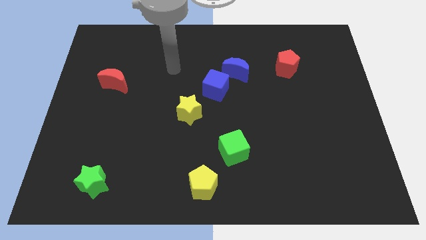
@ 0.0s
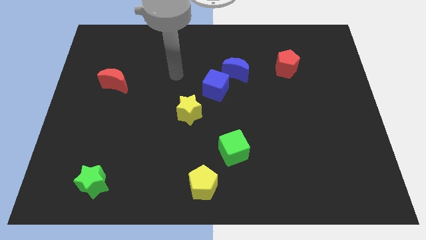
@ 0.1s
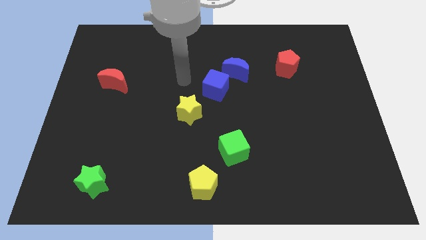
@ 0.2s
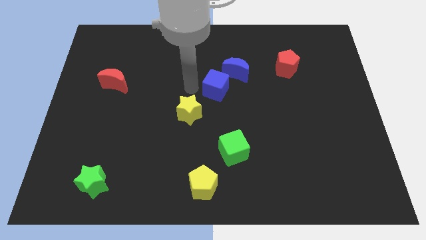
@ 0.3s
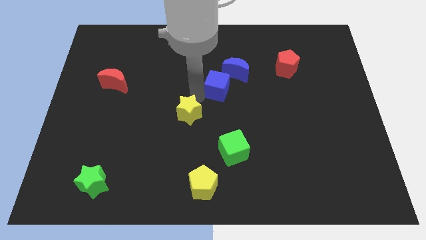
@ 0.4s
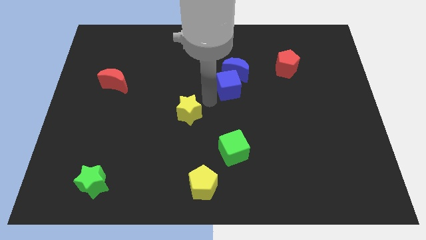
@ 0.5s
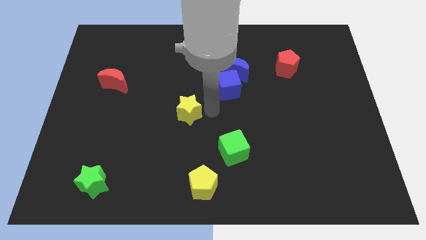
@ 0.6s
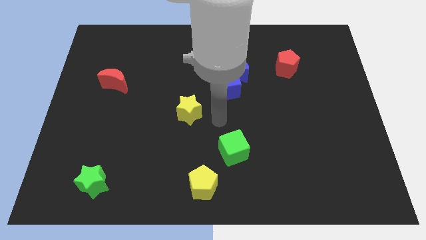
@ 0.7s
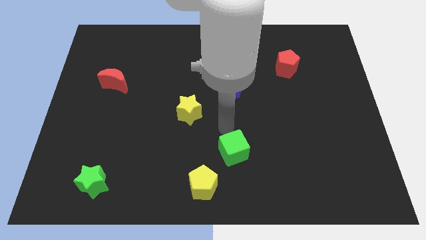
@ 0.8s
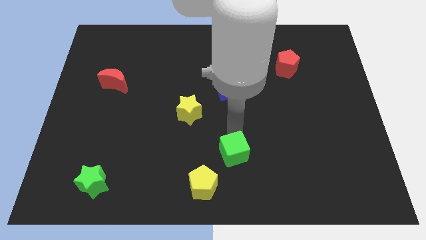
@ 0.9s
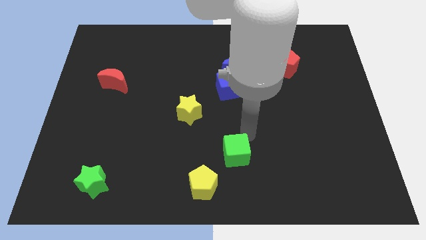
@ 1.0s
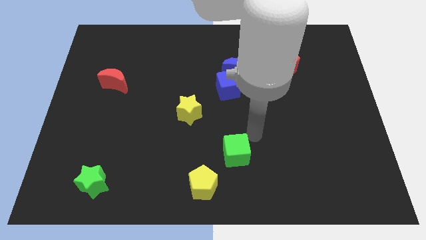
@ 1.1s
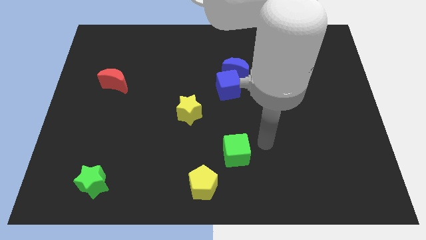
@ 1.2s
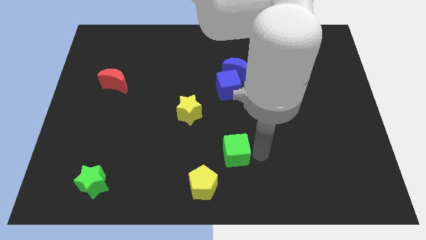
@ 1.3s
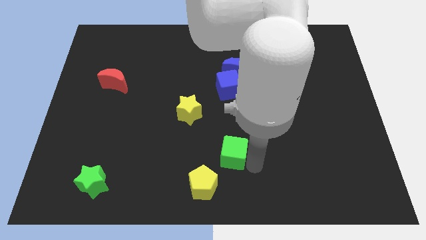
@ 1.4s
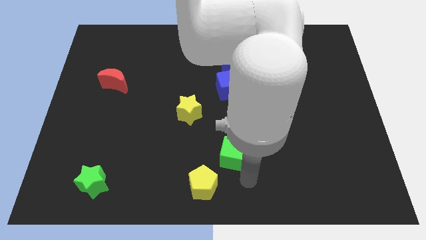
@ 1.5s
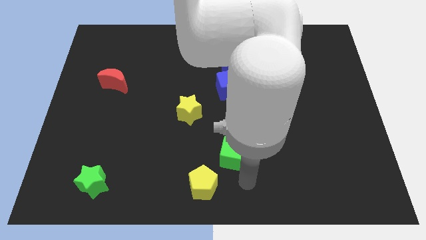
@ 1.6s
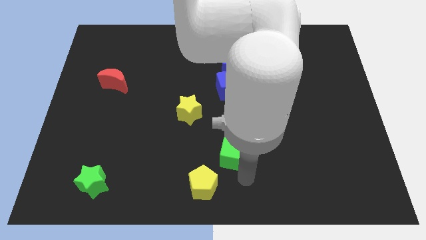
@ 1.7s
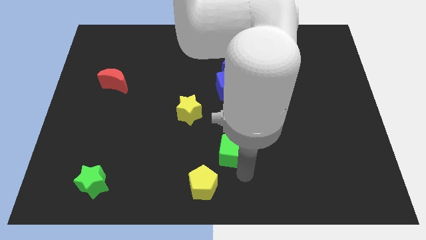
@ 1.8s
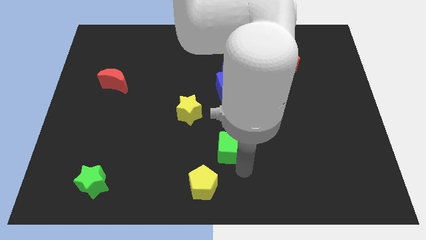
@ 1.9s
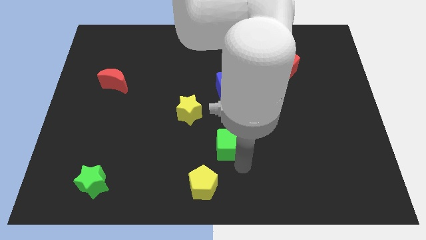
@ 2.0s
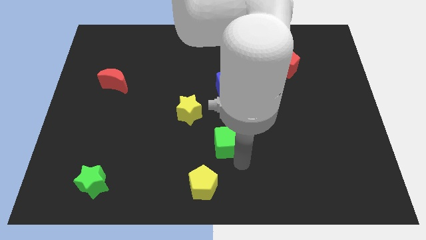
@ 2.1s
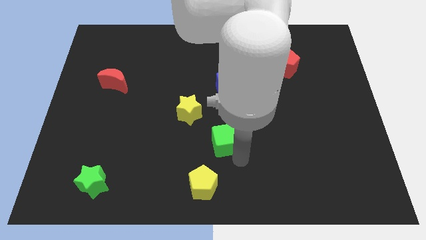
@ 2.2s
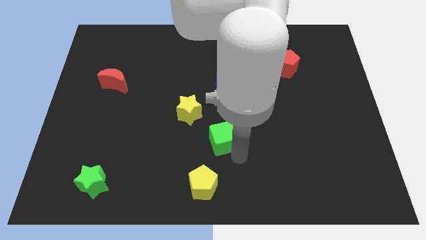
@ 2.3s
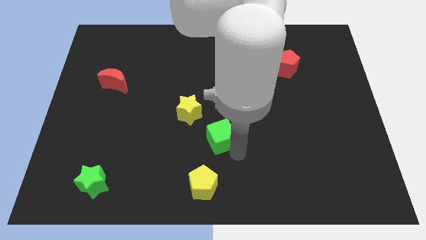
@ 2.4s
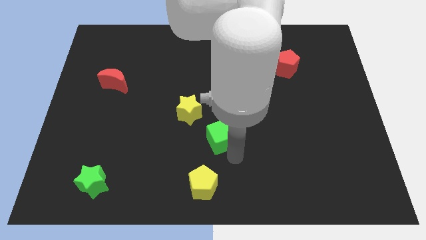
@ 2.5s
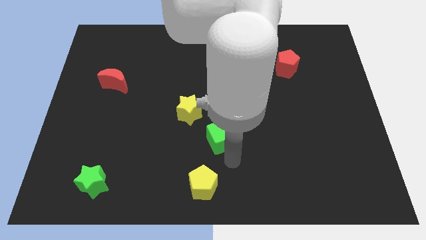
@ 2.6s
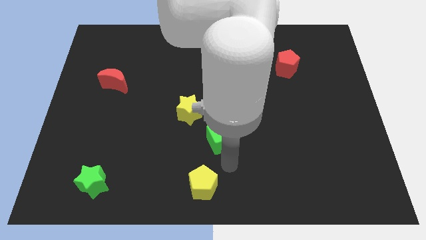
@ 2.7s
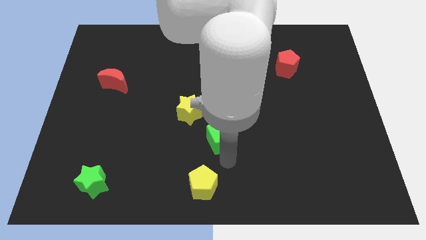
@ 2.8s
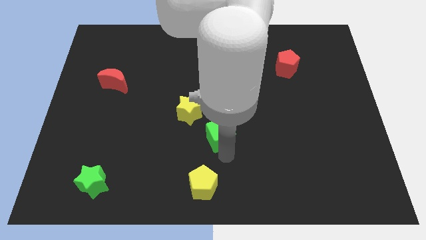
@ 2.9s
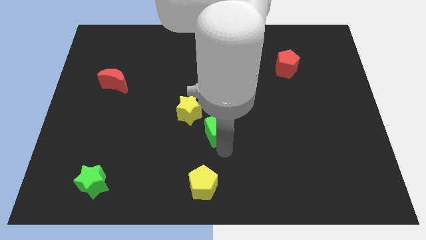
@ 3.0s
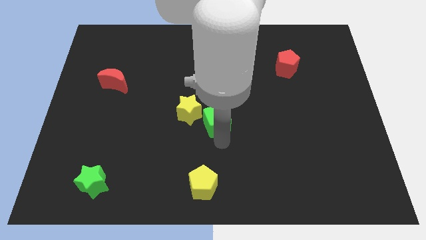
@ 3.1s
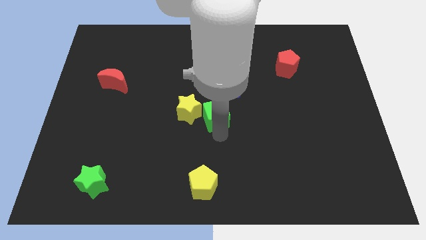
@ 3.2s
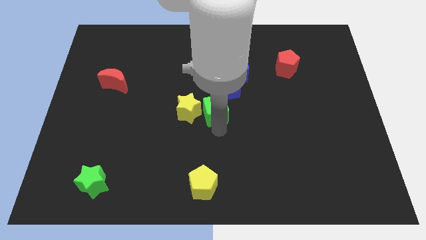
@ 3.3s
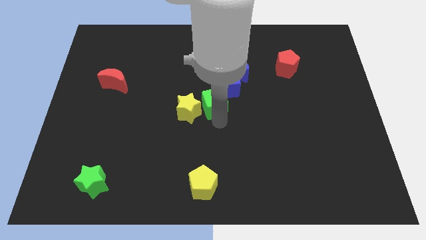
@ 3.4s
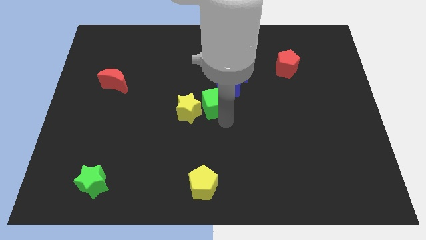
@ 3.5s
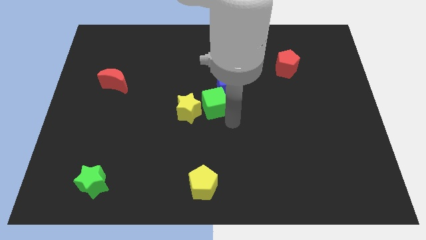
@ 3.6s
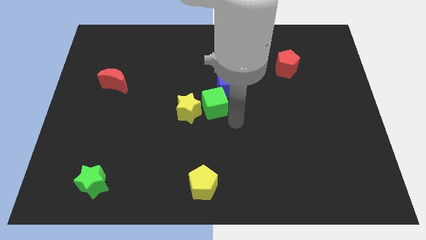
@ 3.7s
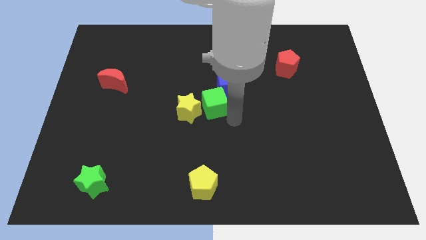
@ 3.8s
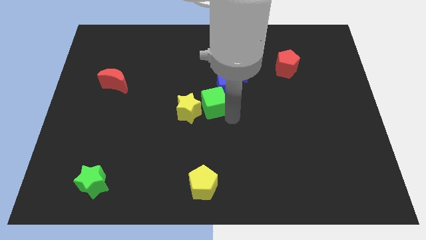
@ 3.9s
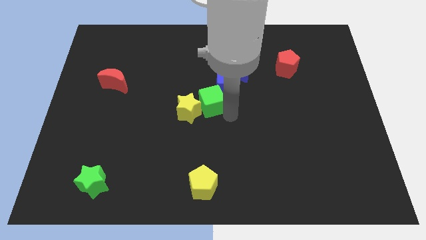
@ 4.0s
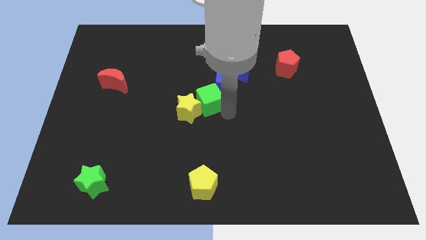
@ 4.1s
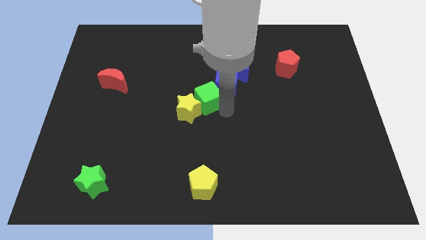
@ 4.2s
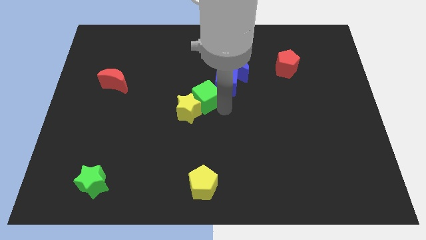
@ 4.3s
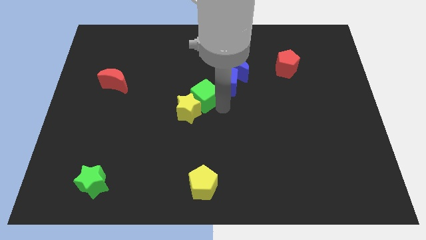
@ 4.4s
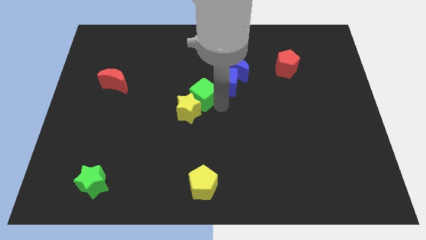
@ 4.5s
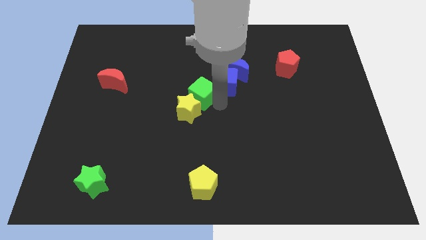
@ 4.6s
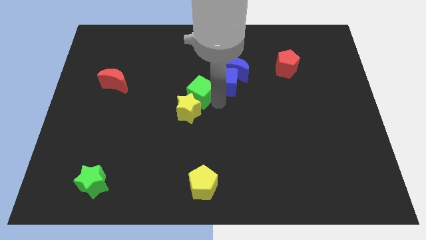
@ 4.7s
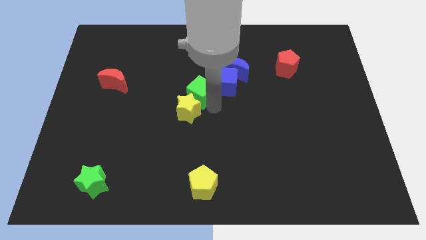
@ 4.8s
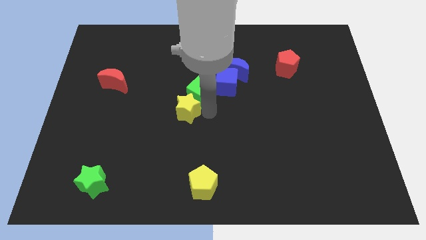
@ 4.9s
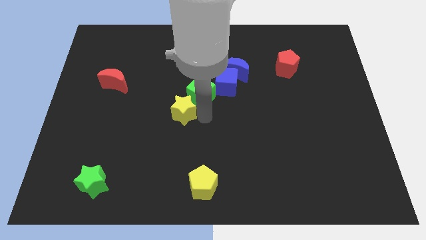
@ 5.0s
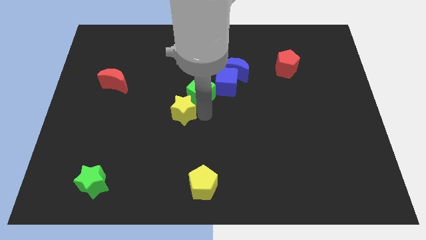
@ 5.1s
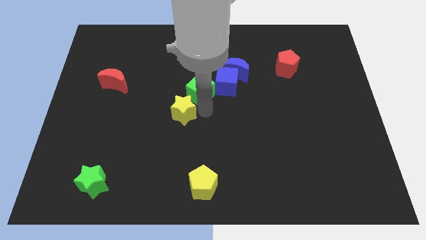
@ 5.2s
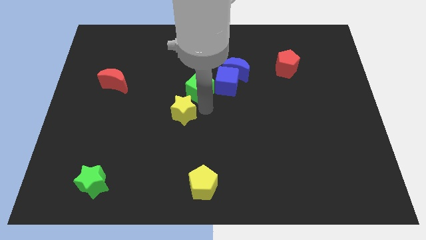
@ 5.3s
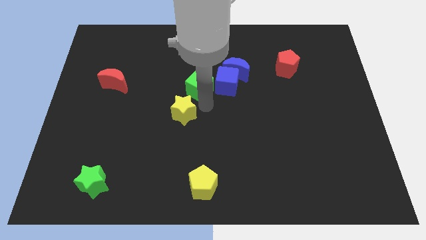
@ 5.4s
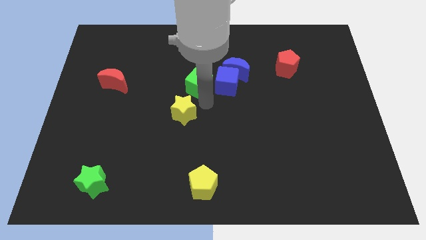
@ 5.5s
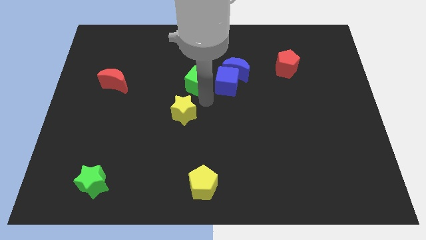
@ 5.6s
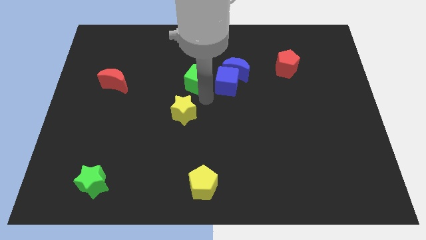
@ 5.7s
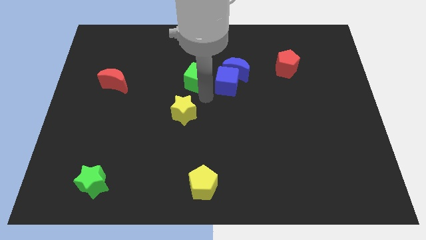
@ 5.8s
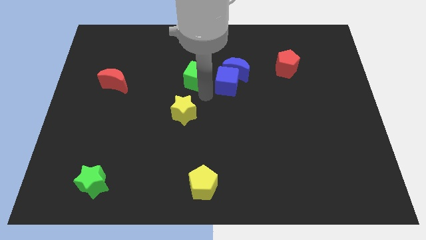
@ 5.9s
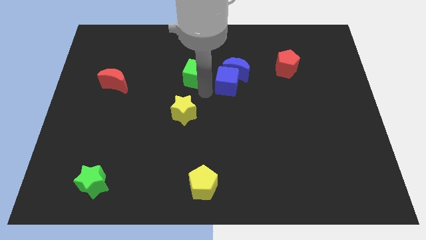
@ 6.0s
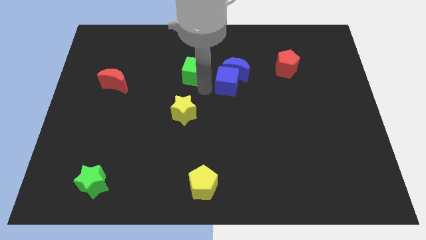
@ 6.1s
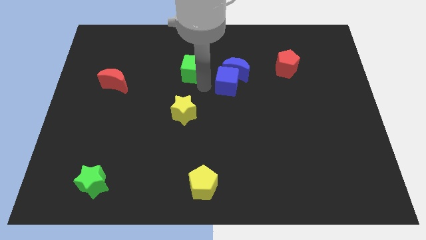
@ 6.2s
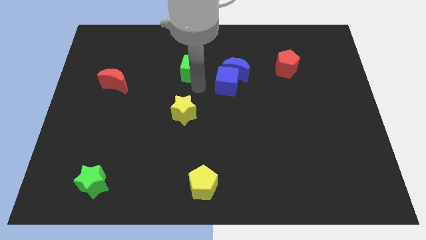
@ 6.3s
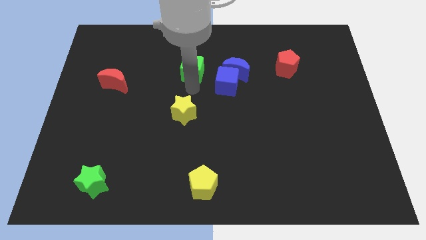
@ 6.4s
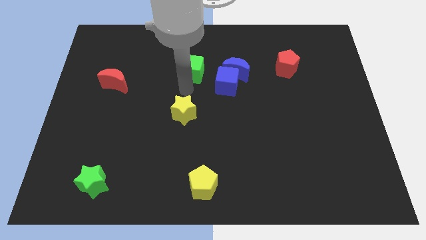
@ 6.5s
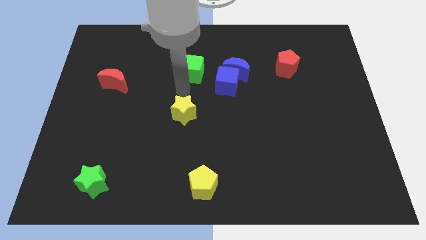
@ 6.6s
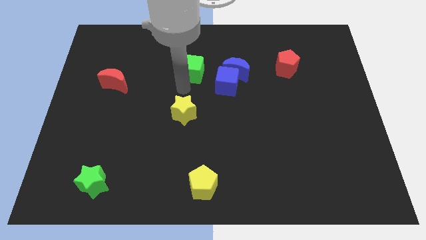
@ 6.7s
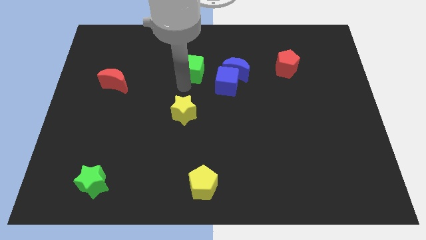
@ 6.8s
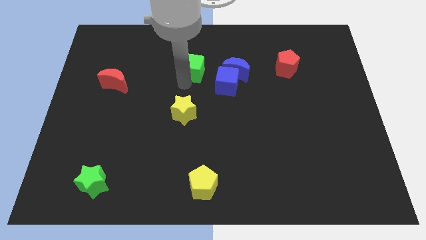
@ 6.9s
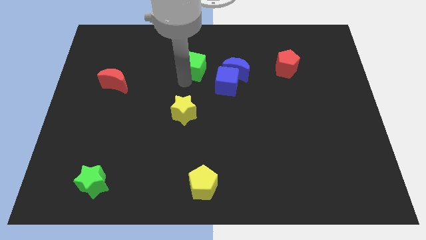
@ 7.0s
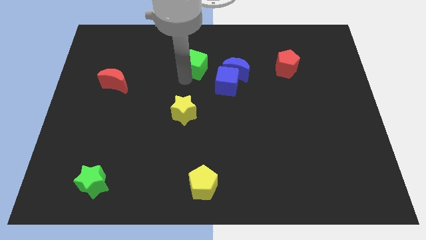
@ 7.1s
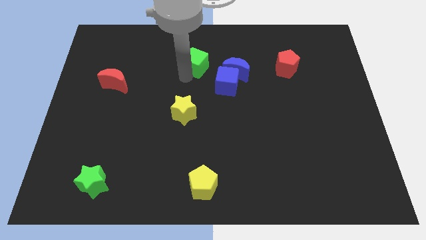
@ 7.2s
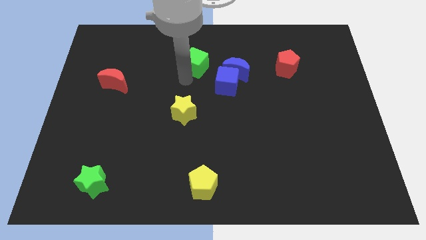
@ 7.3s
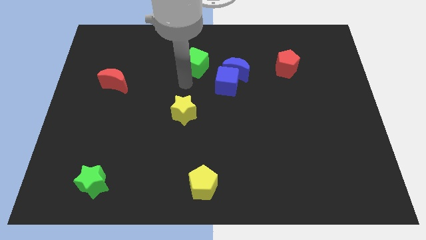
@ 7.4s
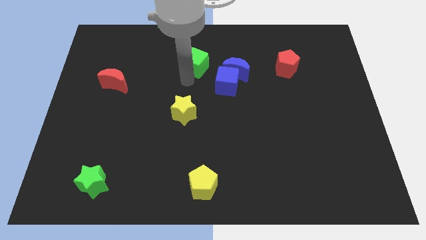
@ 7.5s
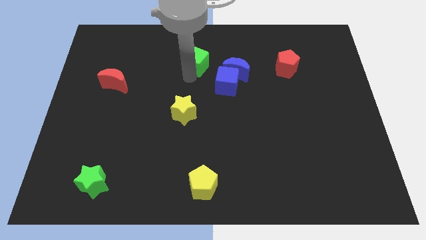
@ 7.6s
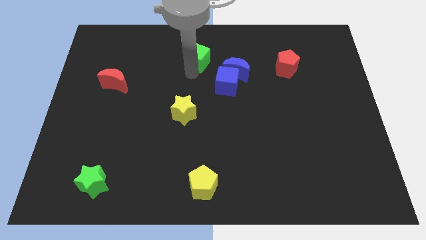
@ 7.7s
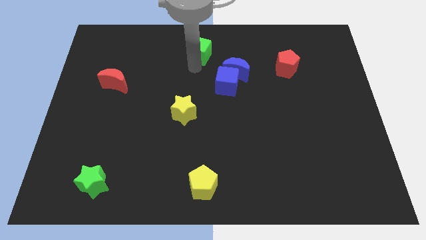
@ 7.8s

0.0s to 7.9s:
push the green cube to the top
